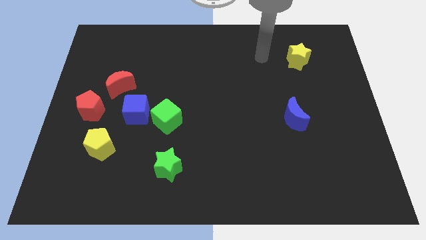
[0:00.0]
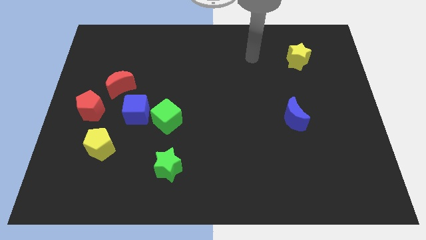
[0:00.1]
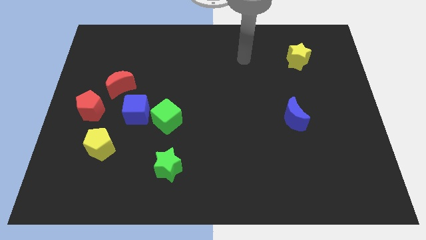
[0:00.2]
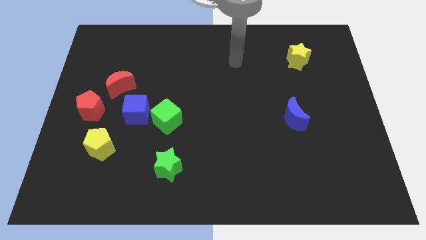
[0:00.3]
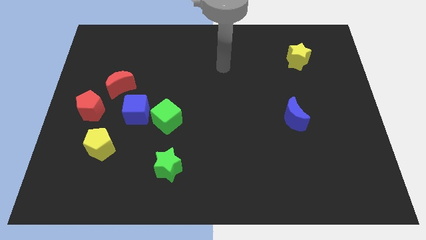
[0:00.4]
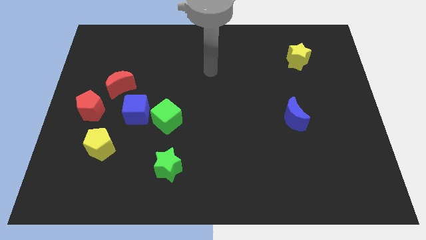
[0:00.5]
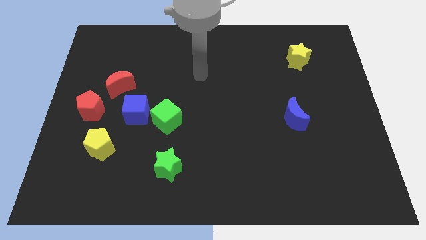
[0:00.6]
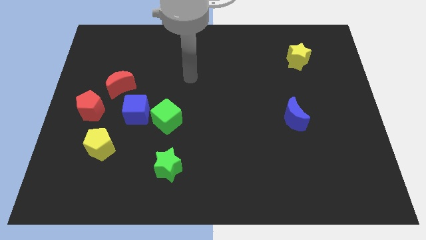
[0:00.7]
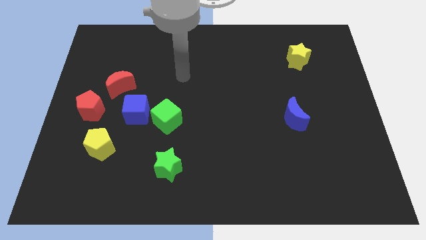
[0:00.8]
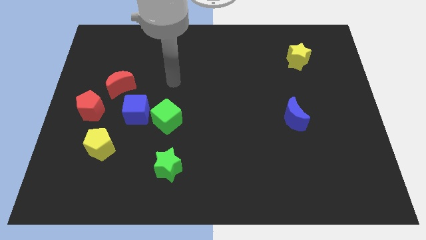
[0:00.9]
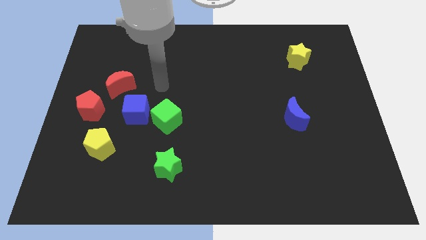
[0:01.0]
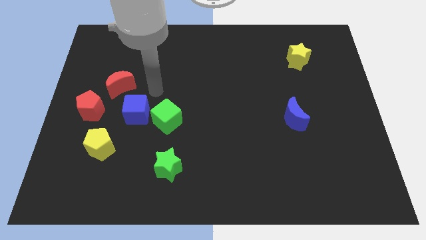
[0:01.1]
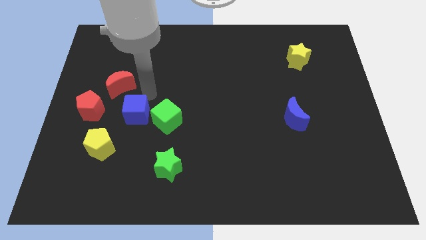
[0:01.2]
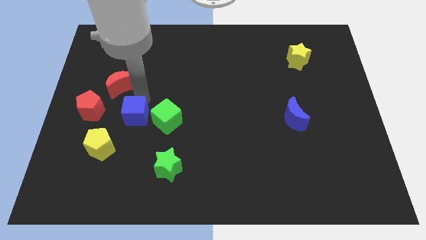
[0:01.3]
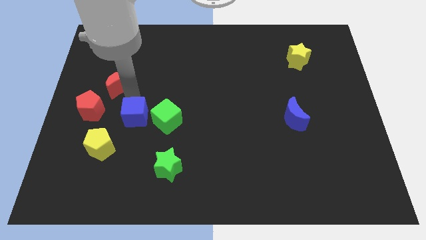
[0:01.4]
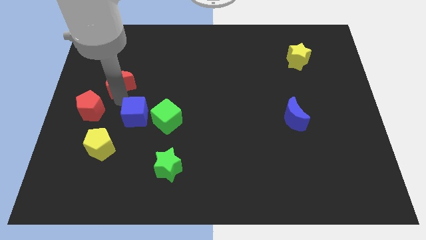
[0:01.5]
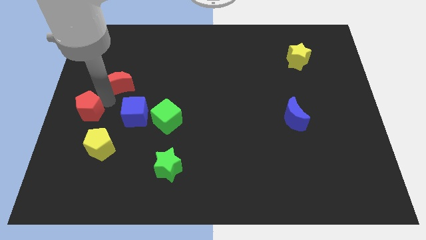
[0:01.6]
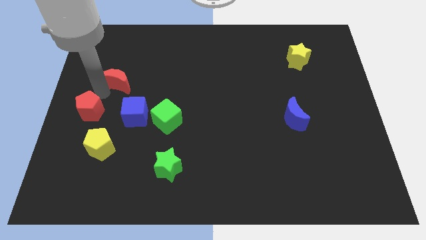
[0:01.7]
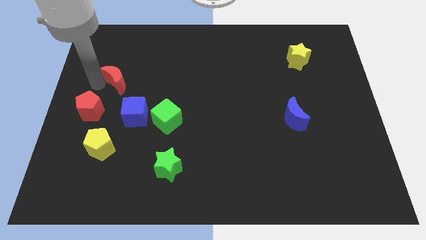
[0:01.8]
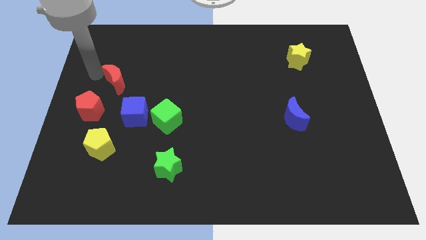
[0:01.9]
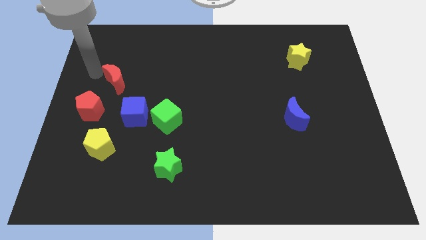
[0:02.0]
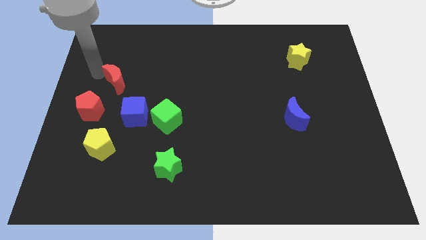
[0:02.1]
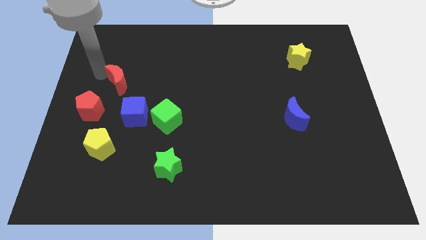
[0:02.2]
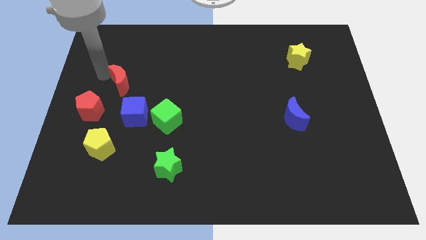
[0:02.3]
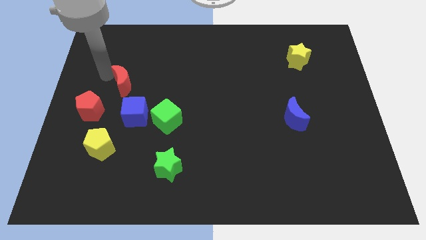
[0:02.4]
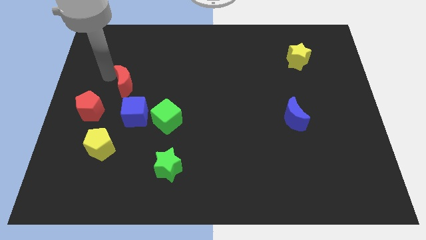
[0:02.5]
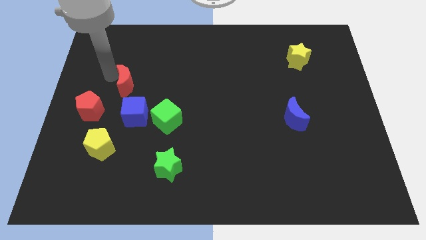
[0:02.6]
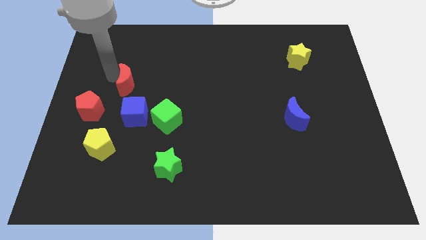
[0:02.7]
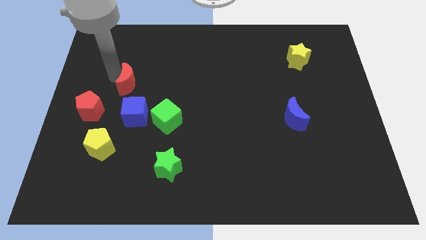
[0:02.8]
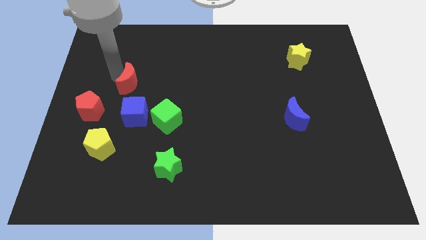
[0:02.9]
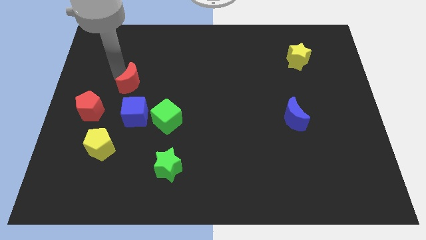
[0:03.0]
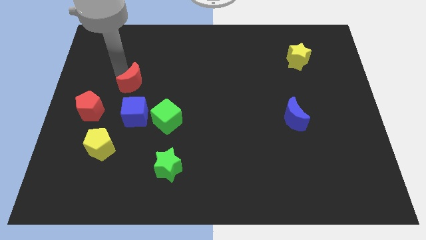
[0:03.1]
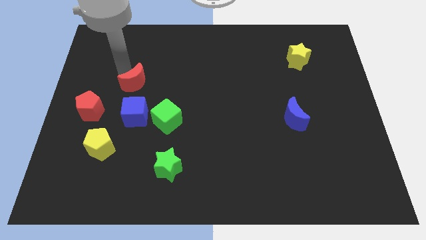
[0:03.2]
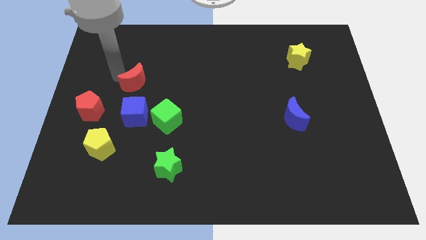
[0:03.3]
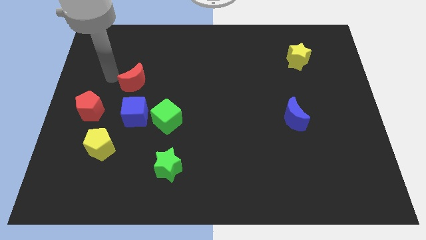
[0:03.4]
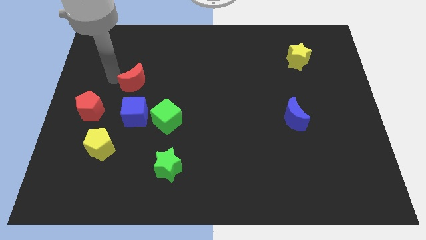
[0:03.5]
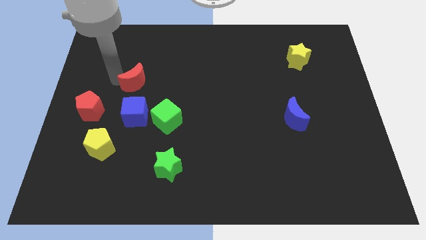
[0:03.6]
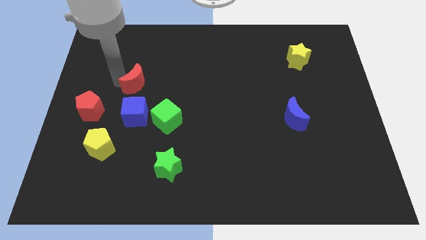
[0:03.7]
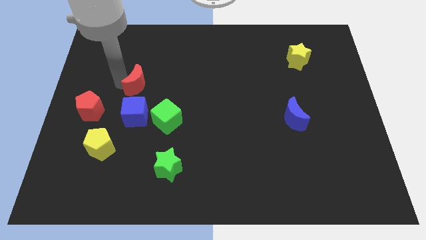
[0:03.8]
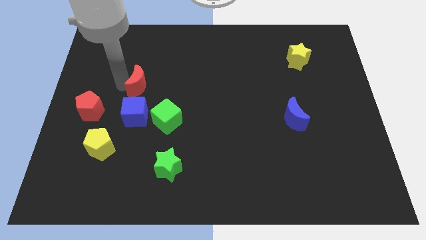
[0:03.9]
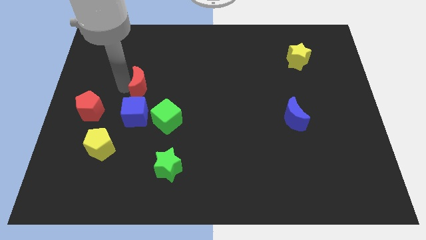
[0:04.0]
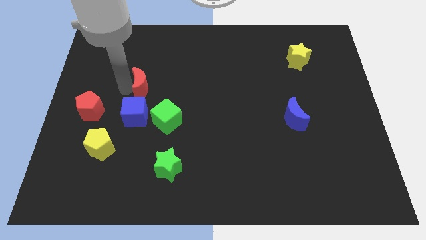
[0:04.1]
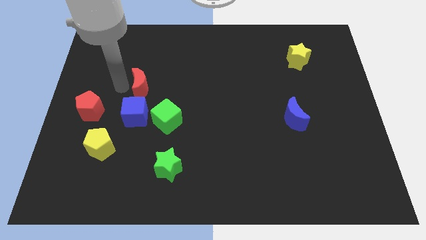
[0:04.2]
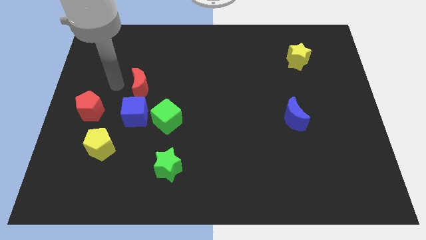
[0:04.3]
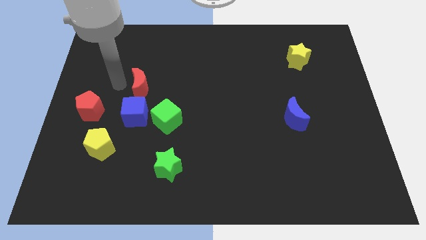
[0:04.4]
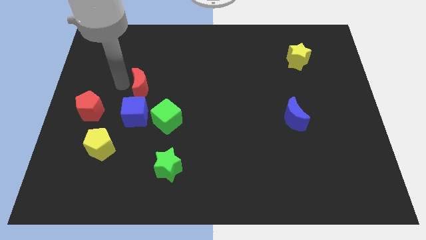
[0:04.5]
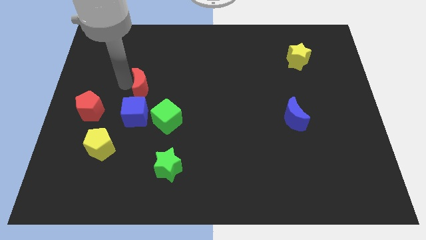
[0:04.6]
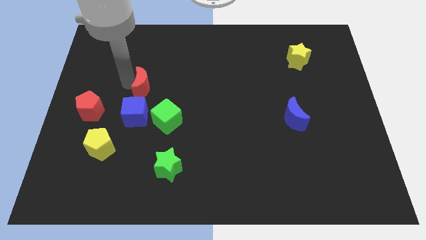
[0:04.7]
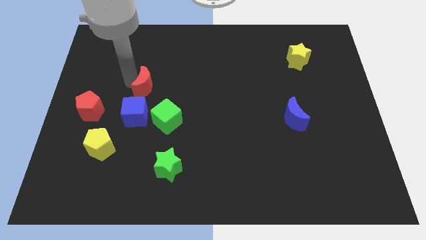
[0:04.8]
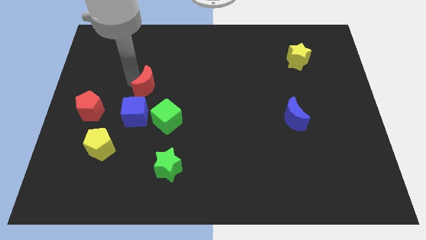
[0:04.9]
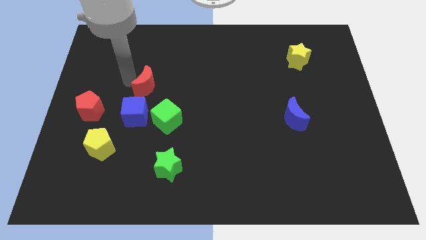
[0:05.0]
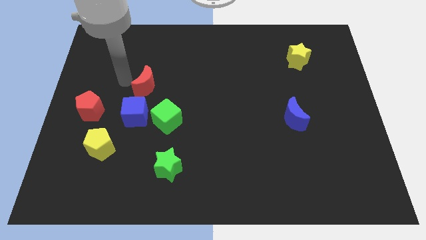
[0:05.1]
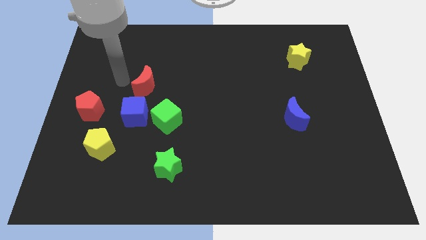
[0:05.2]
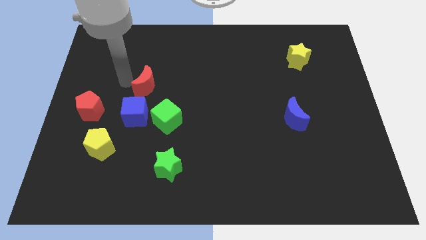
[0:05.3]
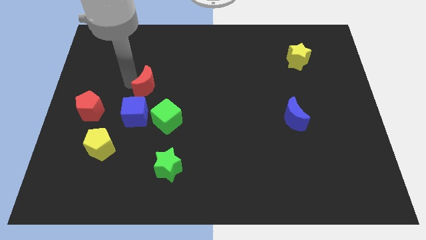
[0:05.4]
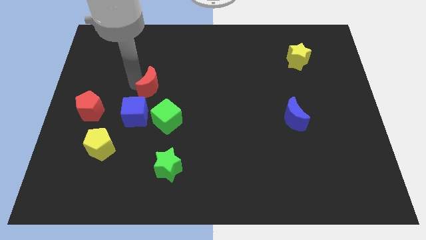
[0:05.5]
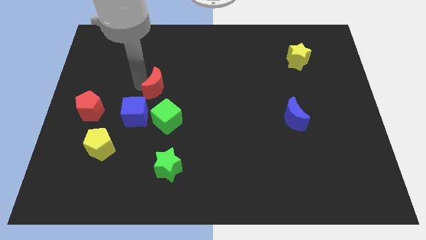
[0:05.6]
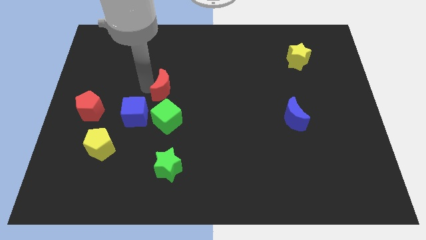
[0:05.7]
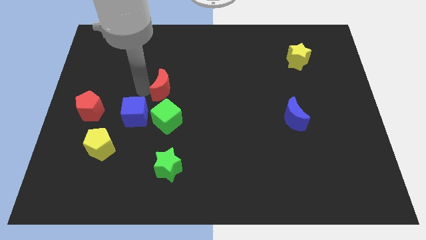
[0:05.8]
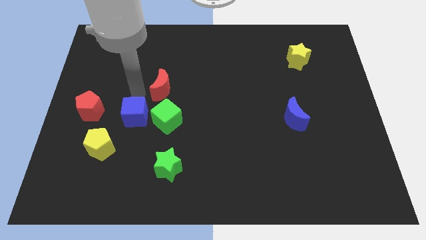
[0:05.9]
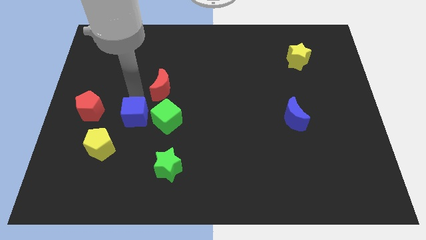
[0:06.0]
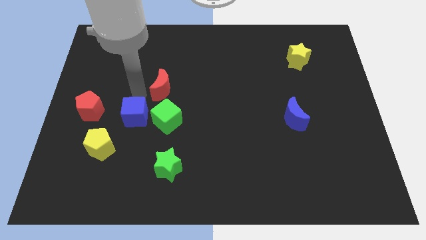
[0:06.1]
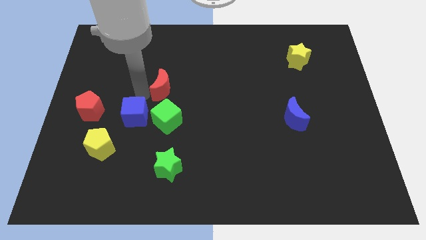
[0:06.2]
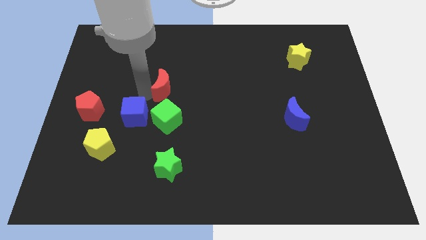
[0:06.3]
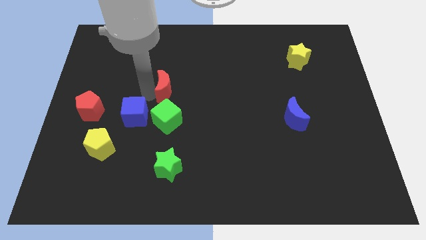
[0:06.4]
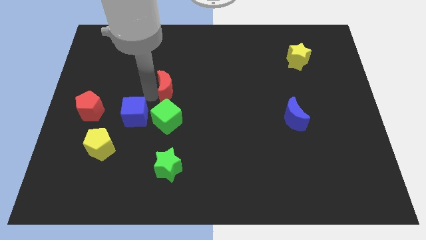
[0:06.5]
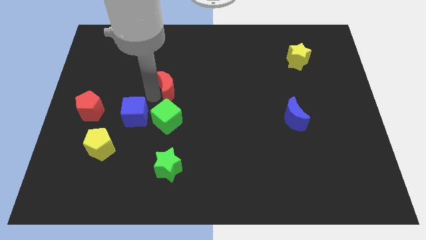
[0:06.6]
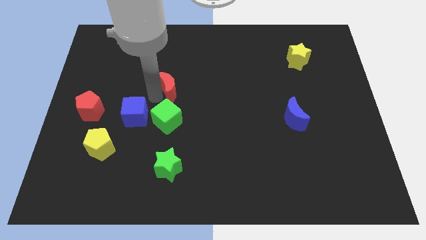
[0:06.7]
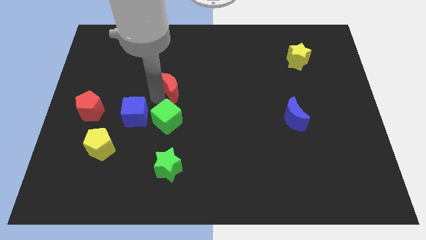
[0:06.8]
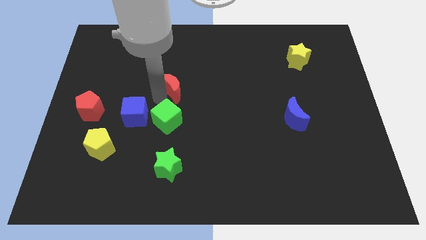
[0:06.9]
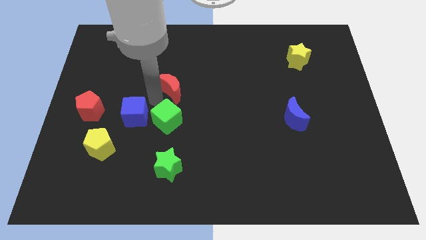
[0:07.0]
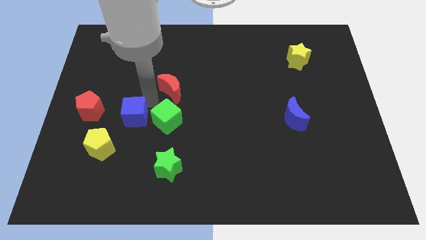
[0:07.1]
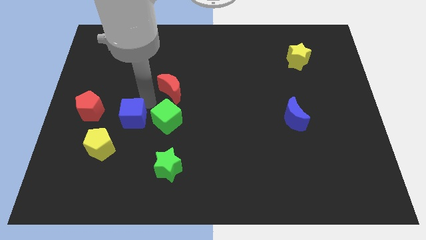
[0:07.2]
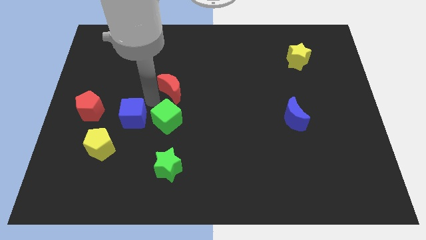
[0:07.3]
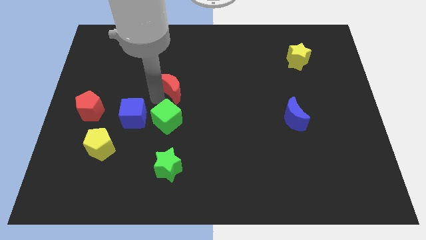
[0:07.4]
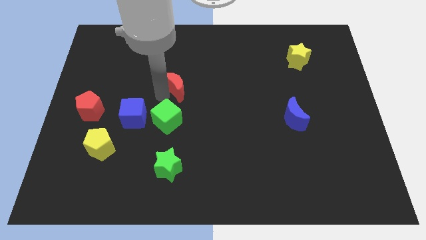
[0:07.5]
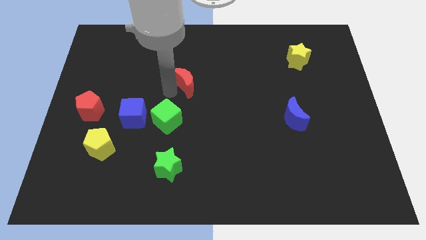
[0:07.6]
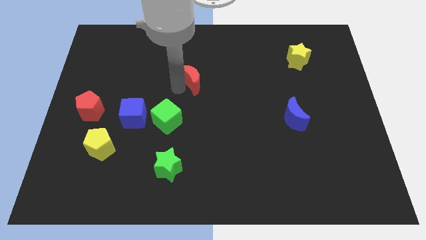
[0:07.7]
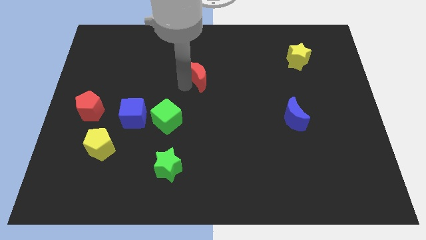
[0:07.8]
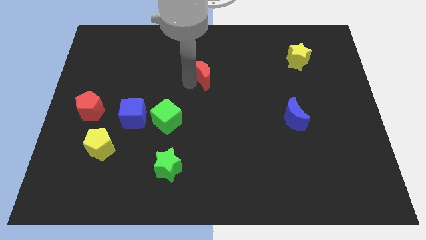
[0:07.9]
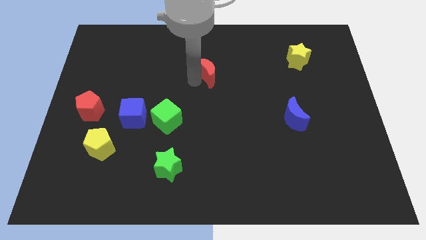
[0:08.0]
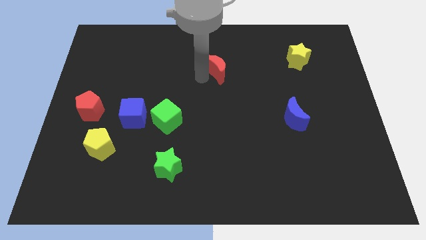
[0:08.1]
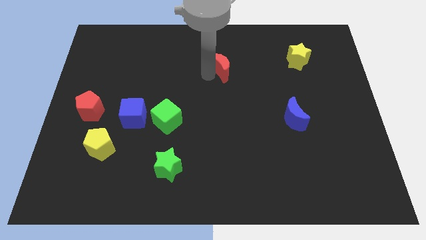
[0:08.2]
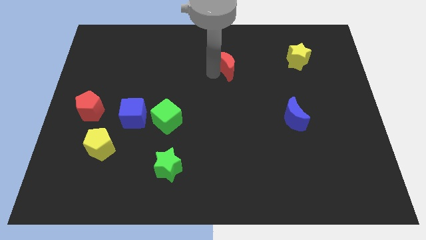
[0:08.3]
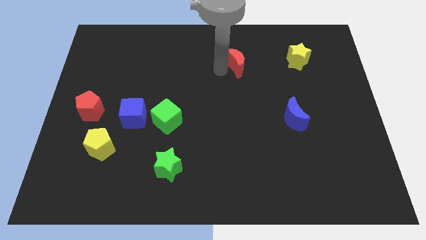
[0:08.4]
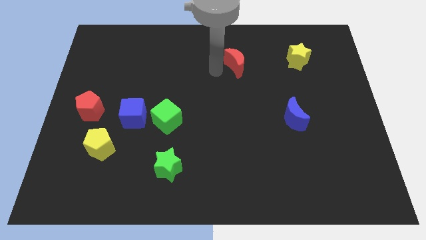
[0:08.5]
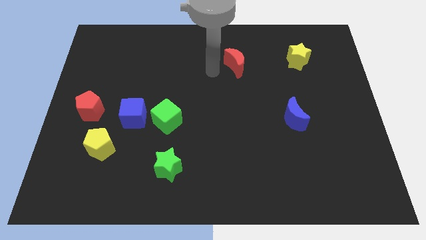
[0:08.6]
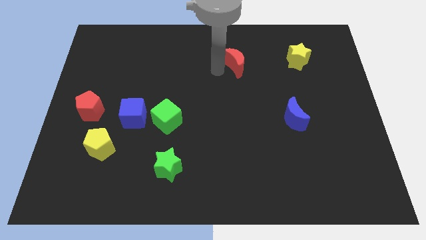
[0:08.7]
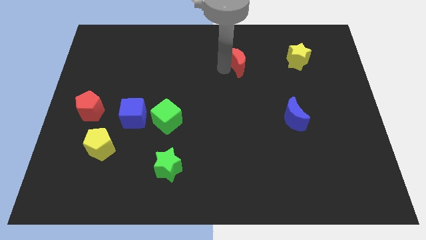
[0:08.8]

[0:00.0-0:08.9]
slide the red moon left of the yellow star
